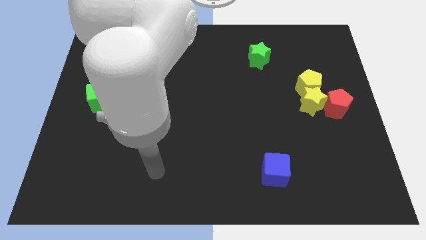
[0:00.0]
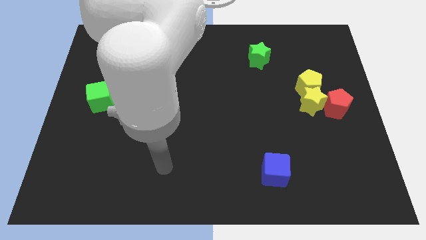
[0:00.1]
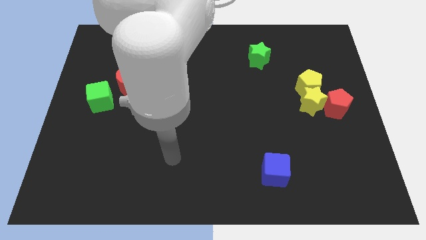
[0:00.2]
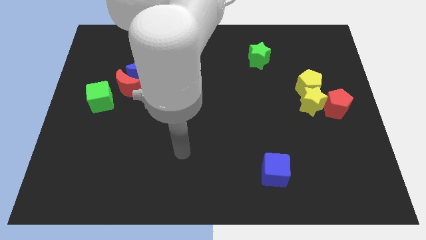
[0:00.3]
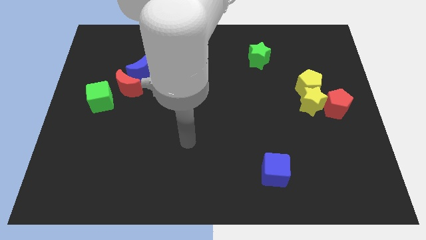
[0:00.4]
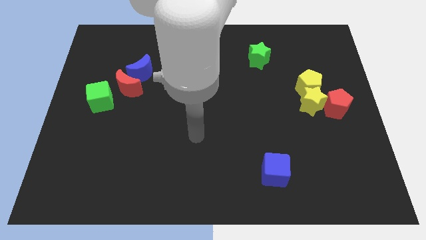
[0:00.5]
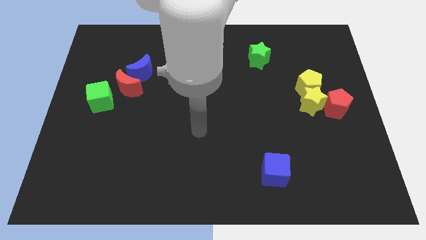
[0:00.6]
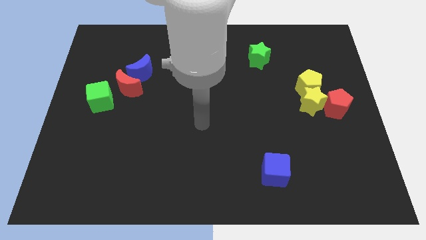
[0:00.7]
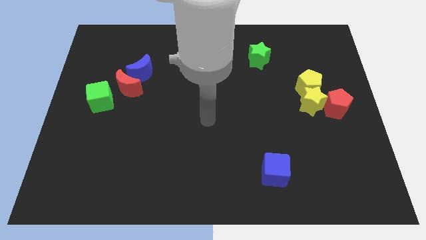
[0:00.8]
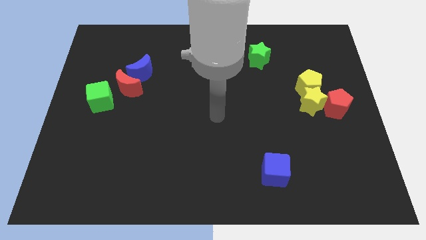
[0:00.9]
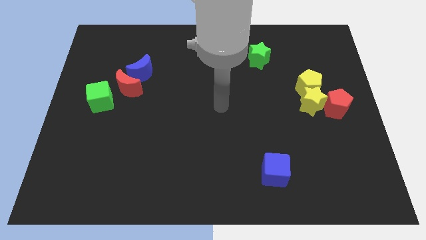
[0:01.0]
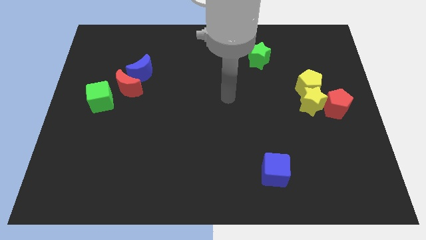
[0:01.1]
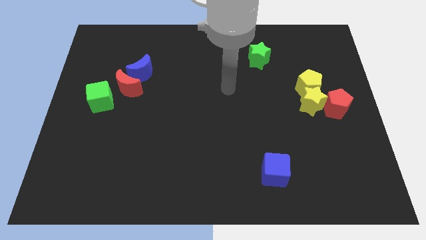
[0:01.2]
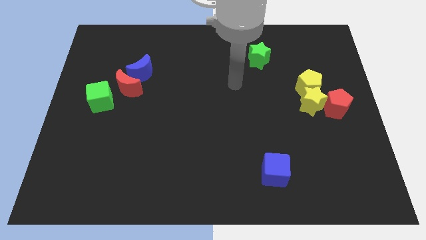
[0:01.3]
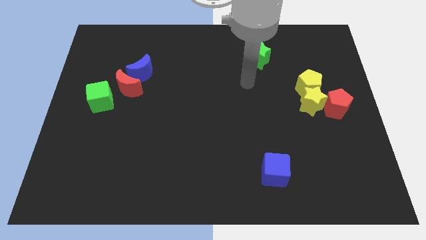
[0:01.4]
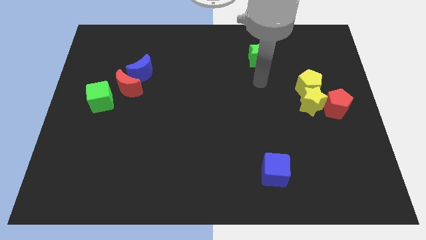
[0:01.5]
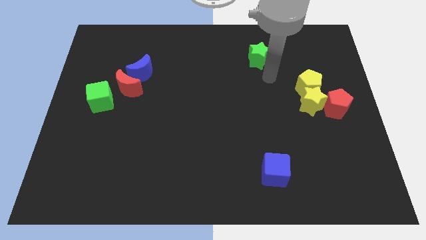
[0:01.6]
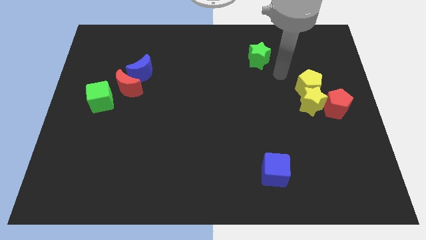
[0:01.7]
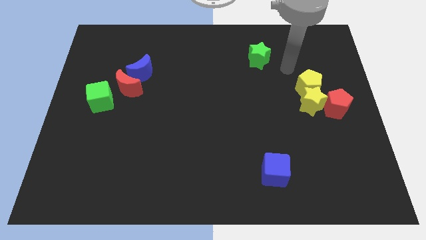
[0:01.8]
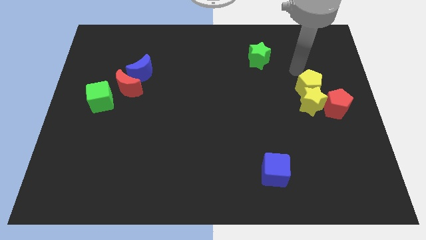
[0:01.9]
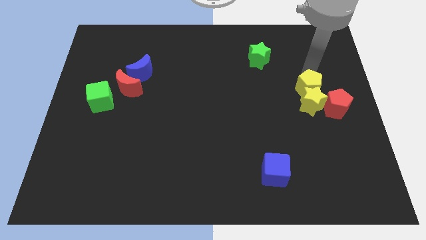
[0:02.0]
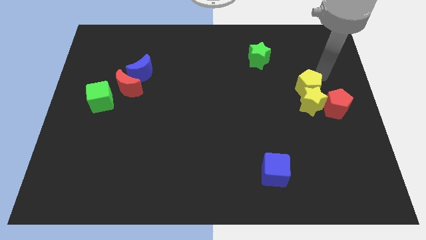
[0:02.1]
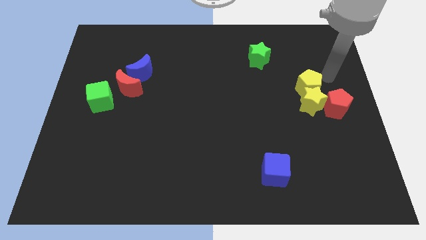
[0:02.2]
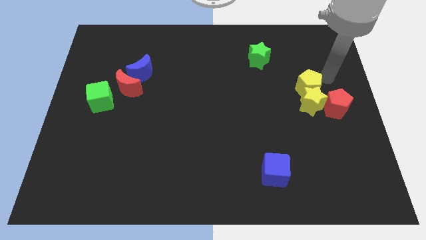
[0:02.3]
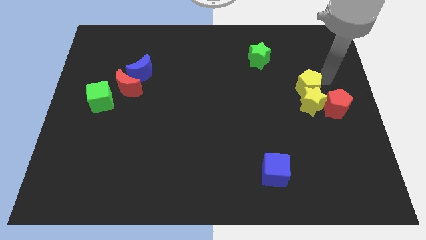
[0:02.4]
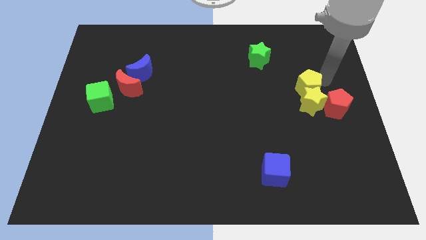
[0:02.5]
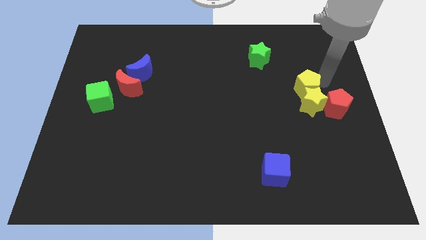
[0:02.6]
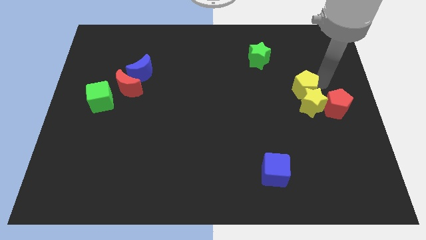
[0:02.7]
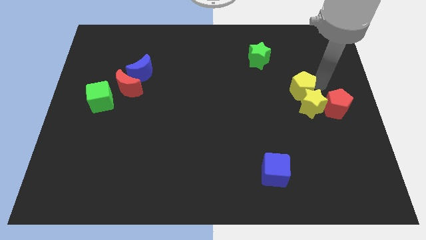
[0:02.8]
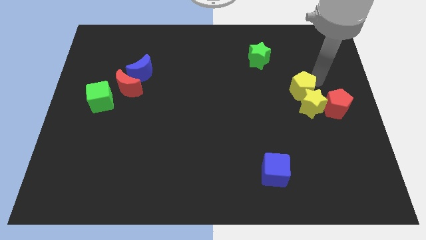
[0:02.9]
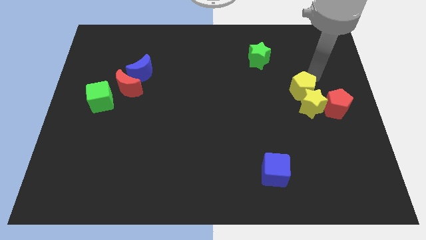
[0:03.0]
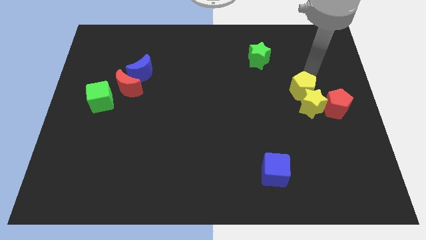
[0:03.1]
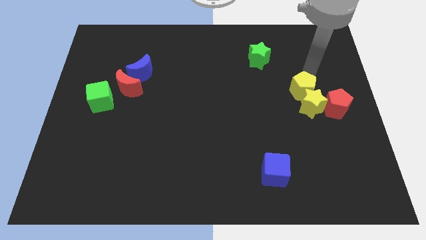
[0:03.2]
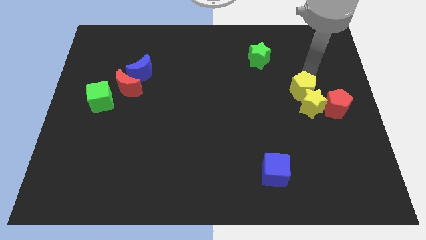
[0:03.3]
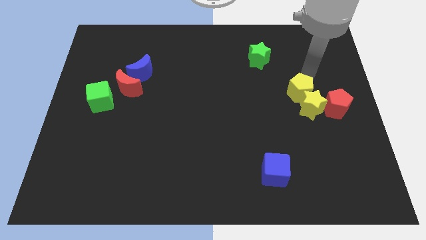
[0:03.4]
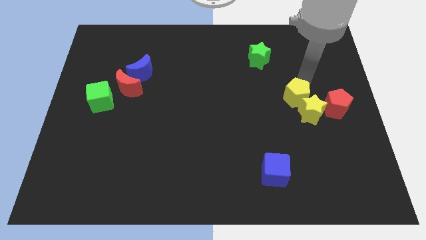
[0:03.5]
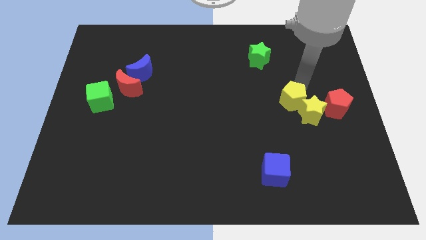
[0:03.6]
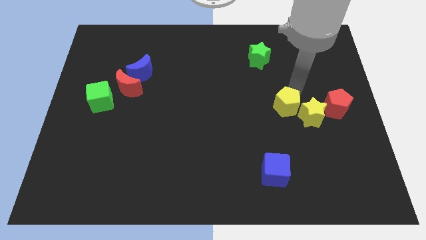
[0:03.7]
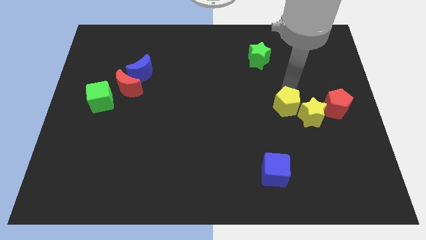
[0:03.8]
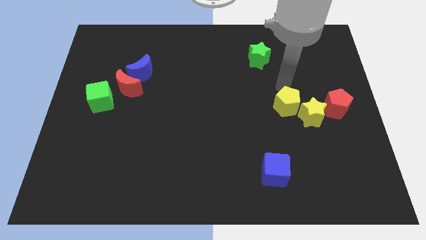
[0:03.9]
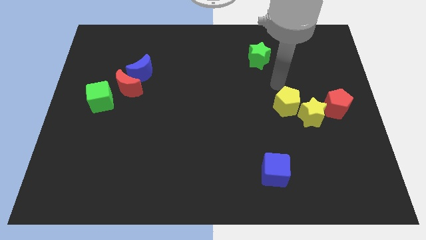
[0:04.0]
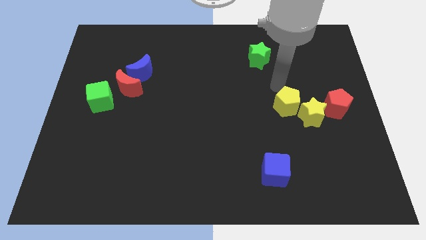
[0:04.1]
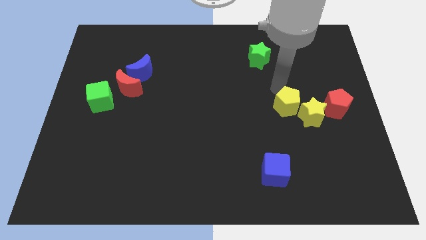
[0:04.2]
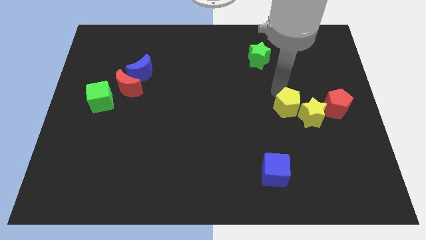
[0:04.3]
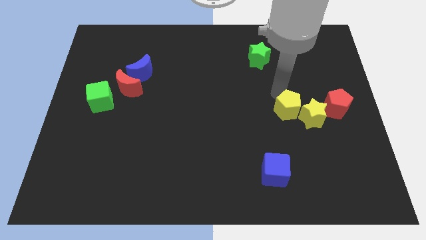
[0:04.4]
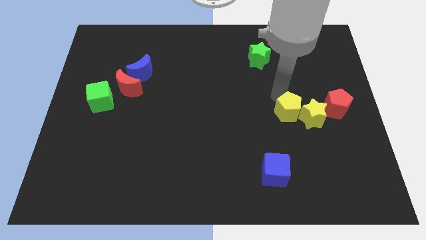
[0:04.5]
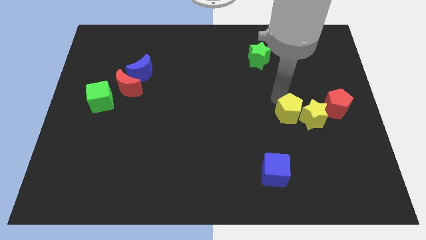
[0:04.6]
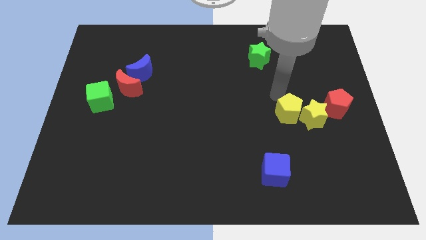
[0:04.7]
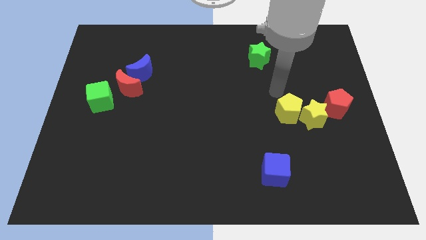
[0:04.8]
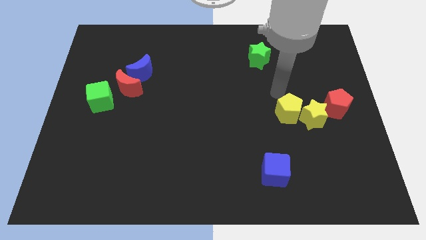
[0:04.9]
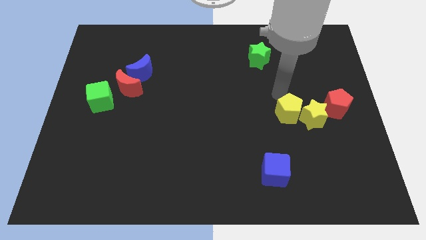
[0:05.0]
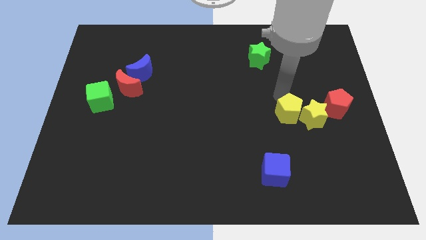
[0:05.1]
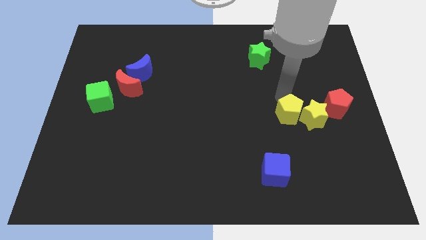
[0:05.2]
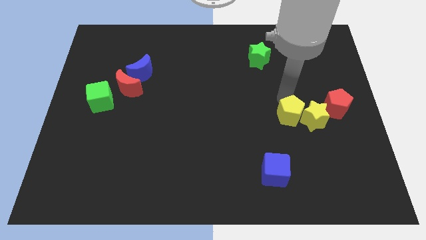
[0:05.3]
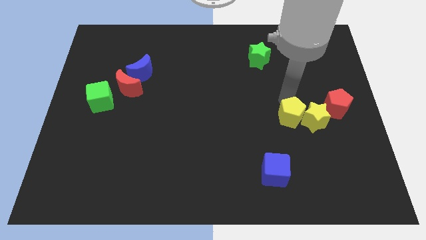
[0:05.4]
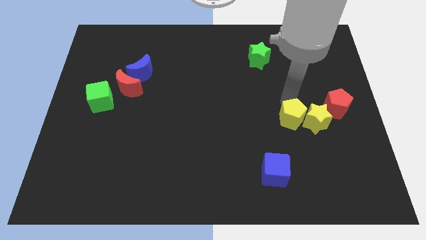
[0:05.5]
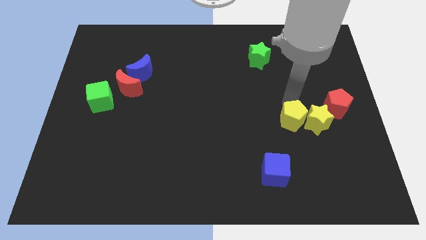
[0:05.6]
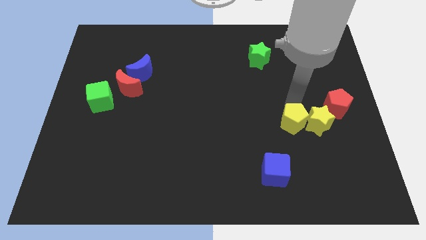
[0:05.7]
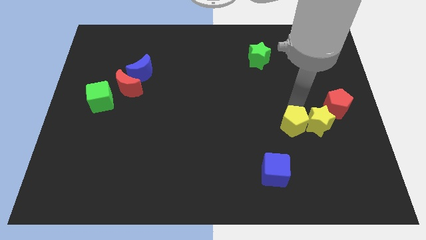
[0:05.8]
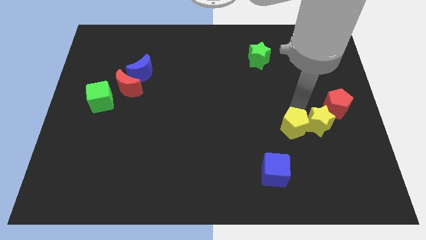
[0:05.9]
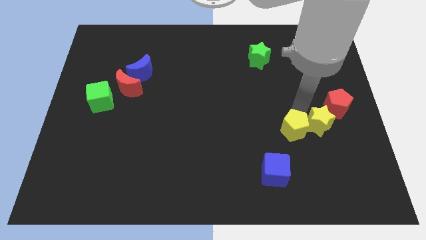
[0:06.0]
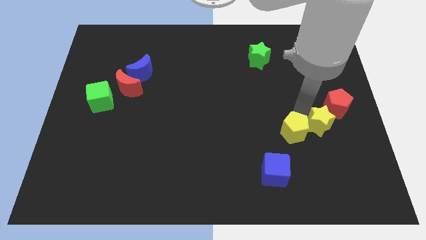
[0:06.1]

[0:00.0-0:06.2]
move the yellow pentagon diagonally up and to the right of the blue cube

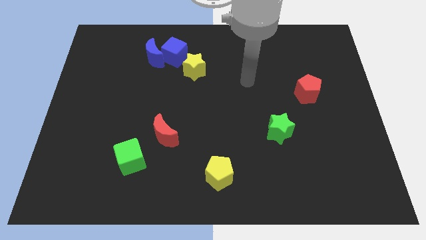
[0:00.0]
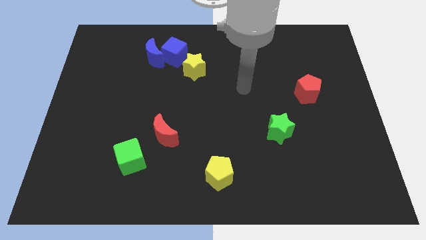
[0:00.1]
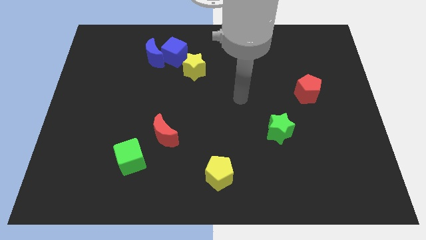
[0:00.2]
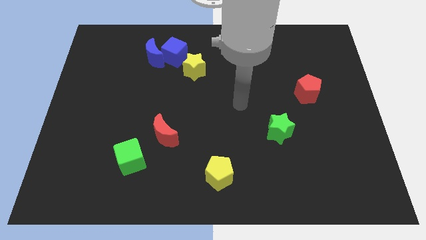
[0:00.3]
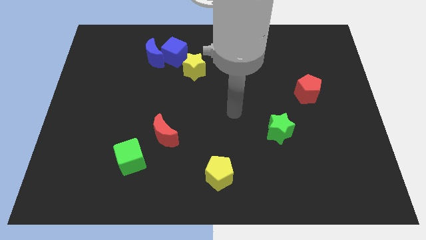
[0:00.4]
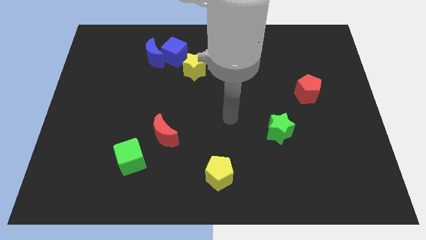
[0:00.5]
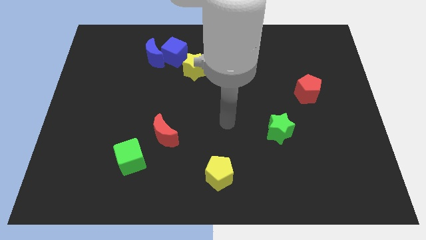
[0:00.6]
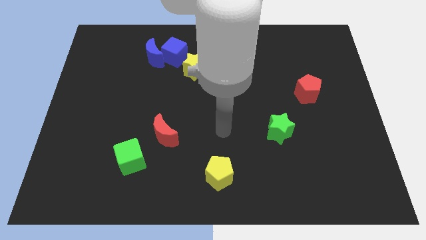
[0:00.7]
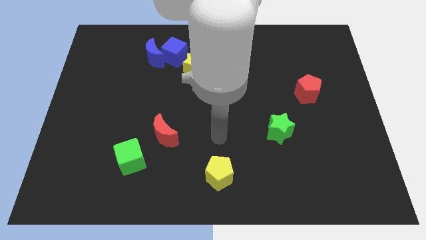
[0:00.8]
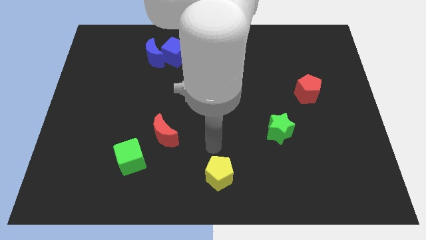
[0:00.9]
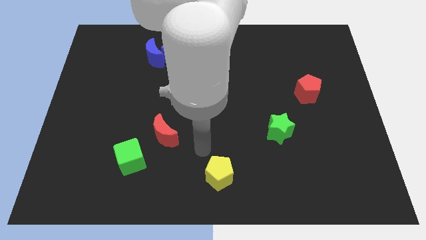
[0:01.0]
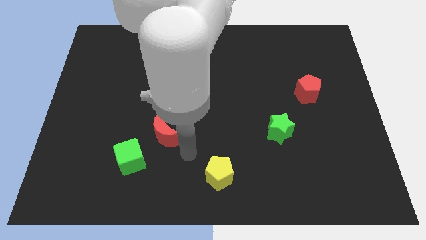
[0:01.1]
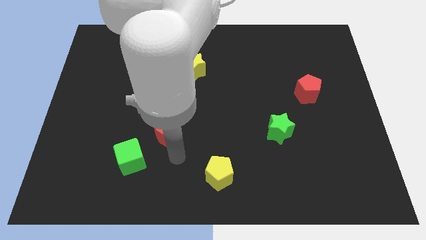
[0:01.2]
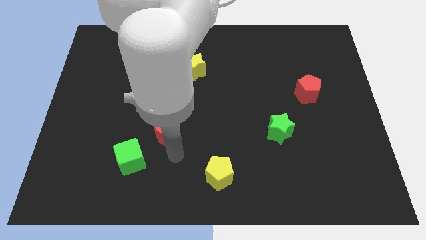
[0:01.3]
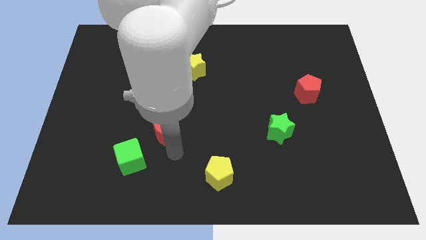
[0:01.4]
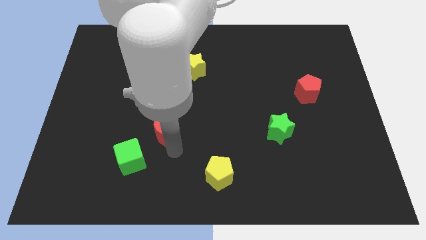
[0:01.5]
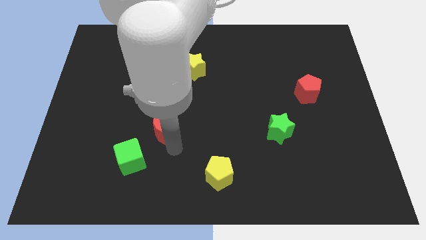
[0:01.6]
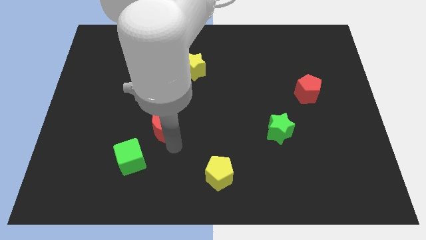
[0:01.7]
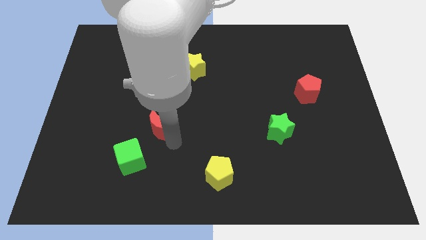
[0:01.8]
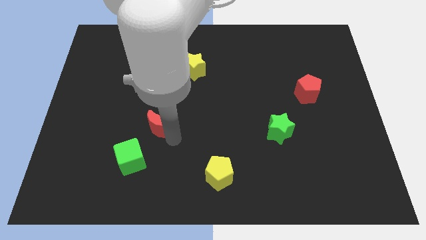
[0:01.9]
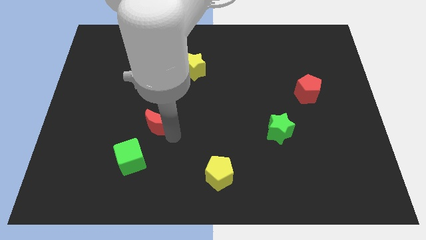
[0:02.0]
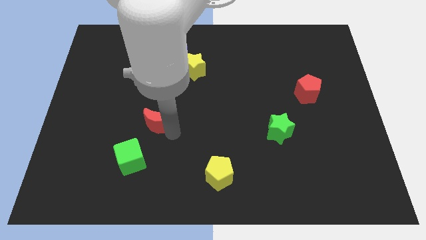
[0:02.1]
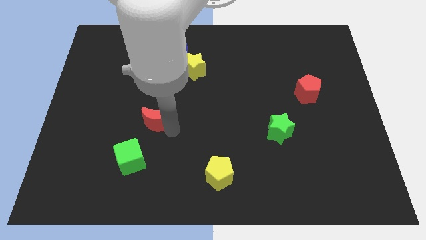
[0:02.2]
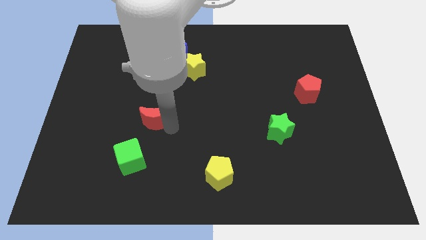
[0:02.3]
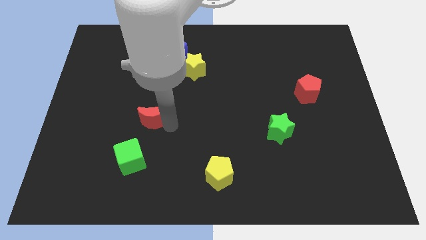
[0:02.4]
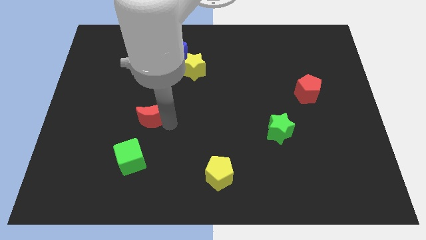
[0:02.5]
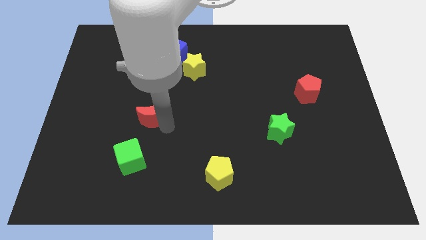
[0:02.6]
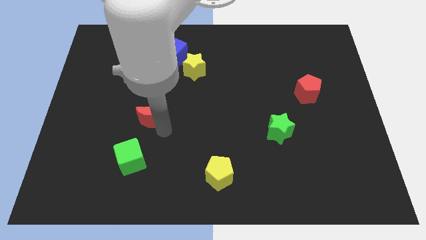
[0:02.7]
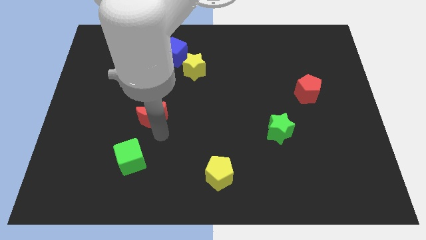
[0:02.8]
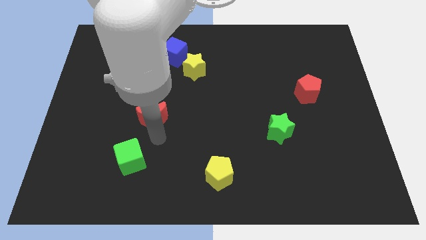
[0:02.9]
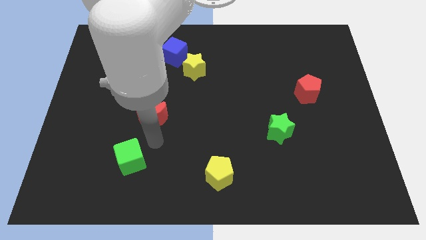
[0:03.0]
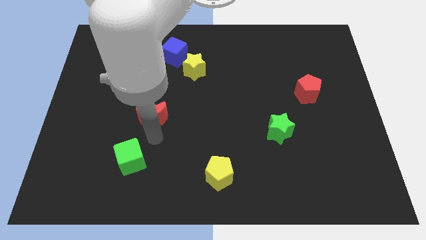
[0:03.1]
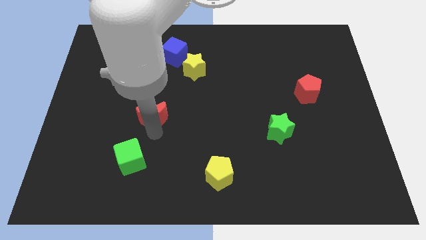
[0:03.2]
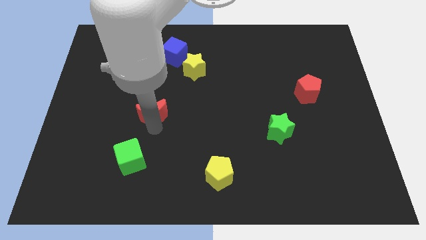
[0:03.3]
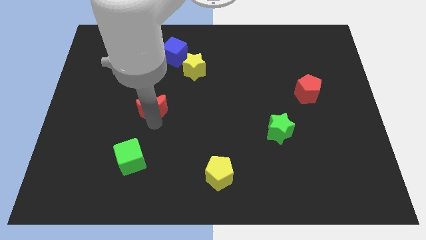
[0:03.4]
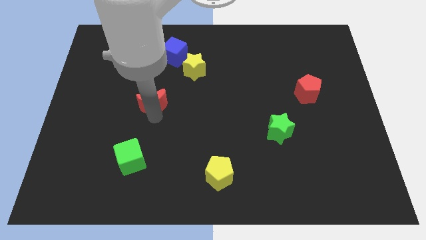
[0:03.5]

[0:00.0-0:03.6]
push the red moon below the blue moon
